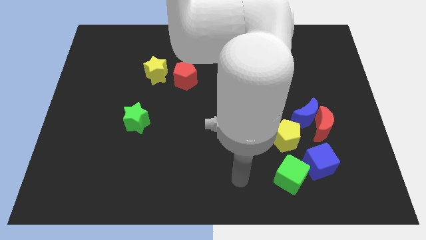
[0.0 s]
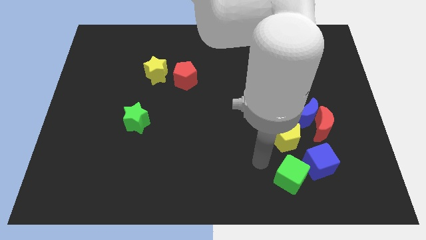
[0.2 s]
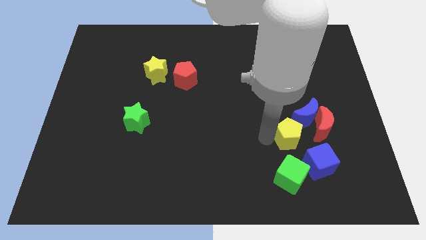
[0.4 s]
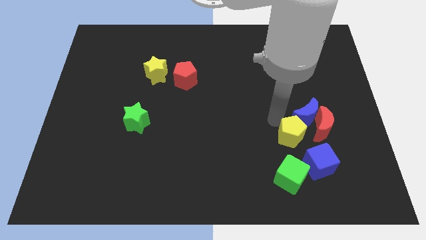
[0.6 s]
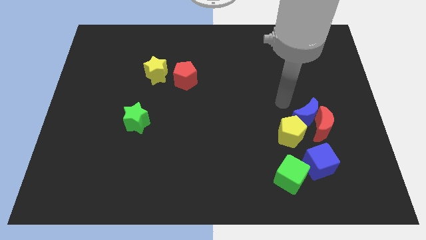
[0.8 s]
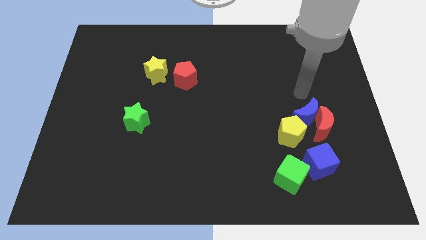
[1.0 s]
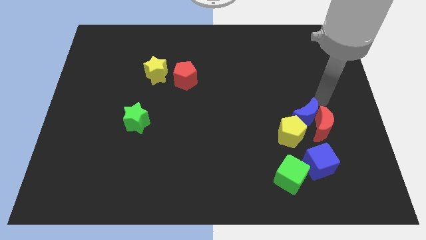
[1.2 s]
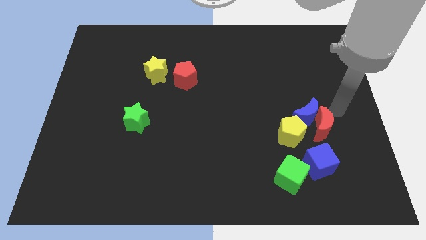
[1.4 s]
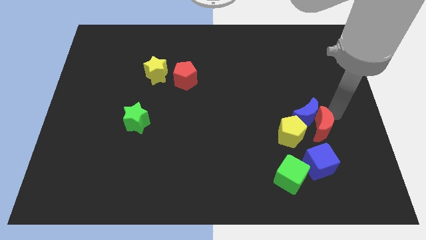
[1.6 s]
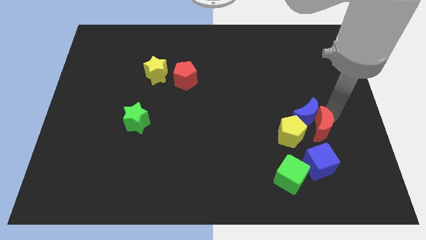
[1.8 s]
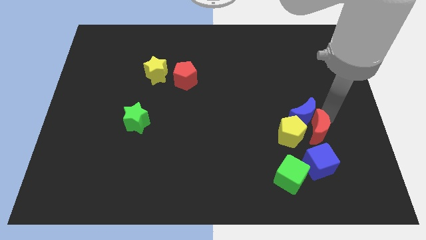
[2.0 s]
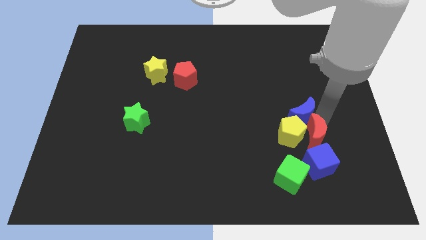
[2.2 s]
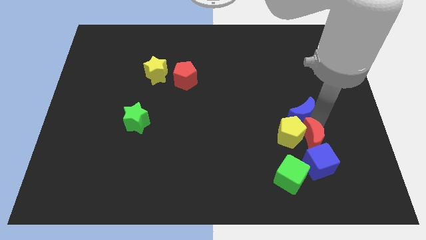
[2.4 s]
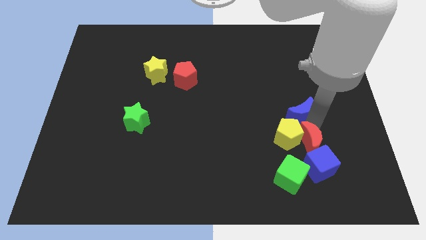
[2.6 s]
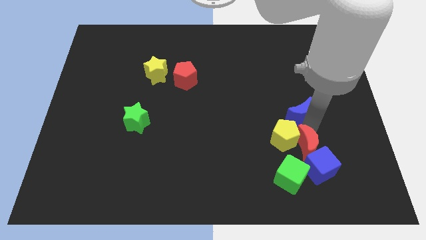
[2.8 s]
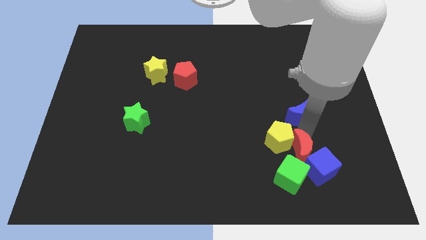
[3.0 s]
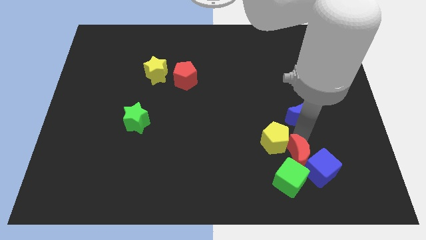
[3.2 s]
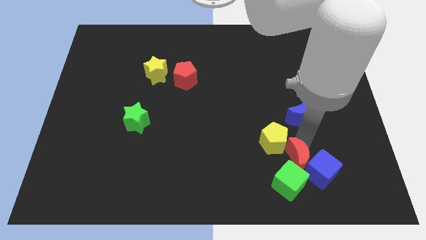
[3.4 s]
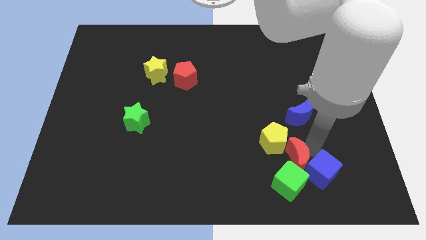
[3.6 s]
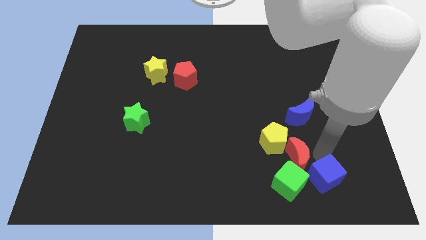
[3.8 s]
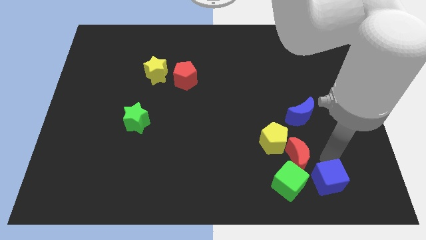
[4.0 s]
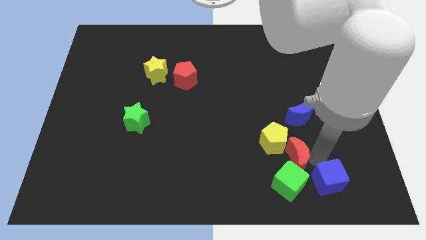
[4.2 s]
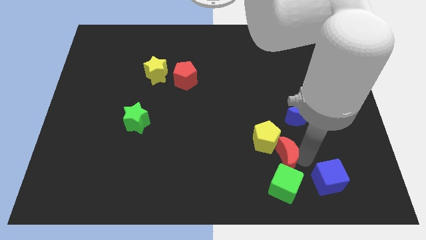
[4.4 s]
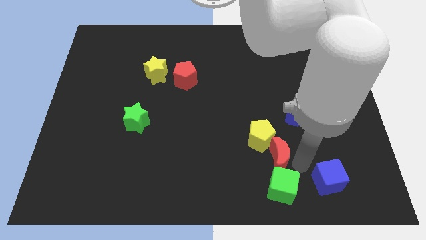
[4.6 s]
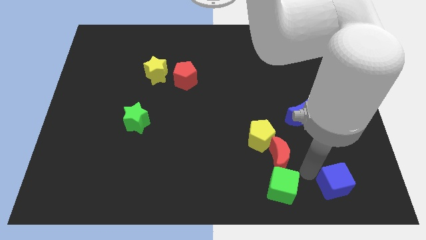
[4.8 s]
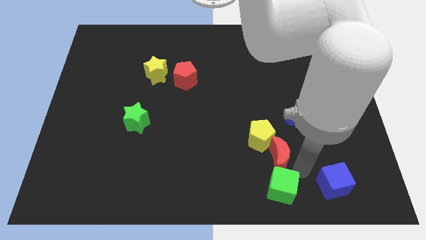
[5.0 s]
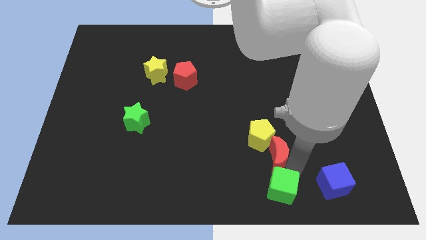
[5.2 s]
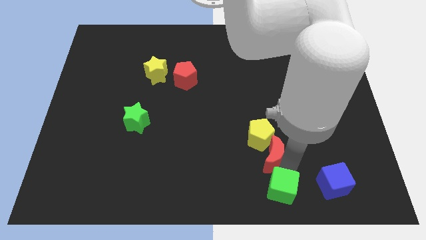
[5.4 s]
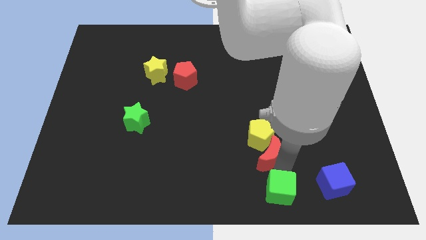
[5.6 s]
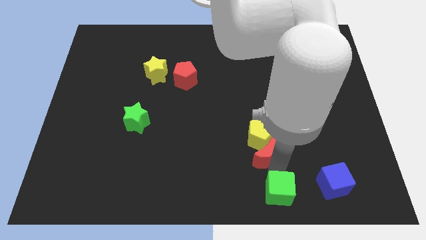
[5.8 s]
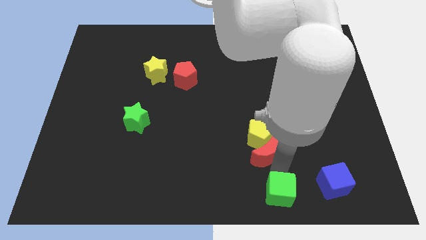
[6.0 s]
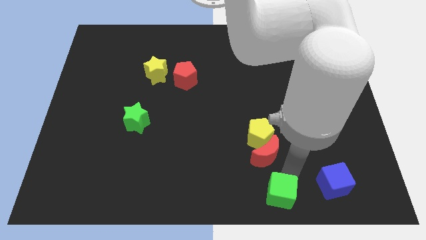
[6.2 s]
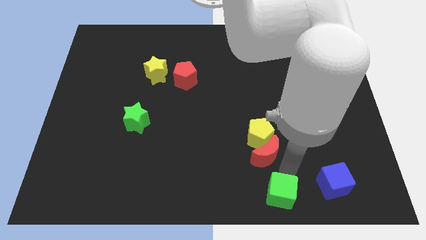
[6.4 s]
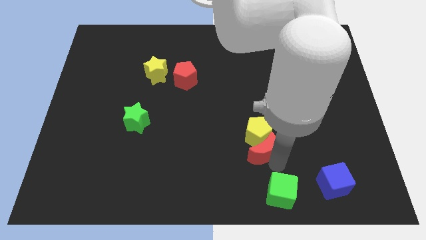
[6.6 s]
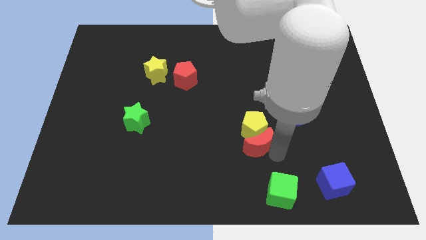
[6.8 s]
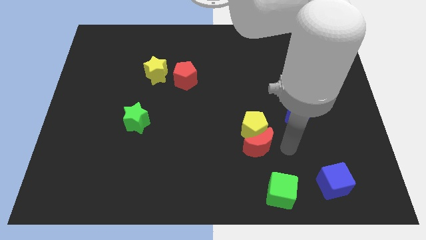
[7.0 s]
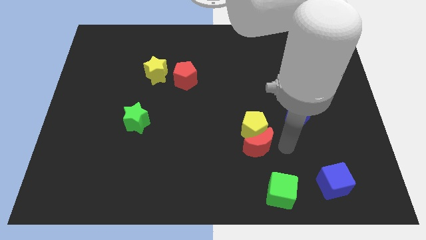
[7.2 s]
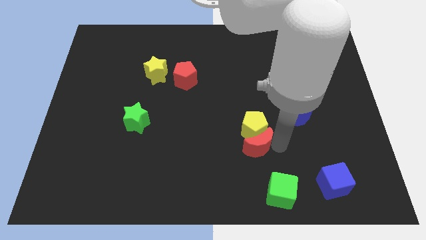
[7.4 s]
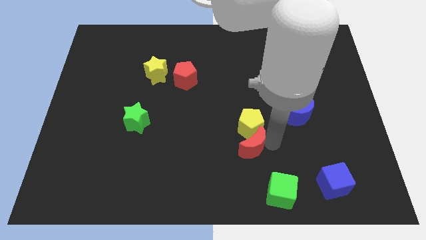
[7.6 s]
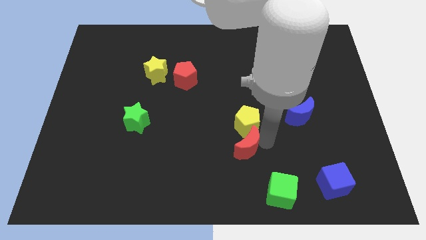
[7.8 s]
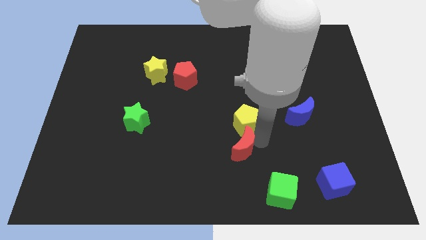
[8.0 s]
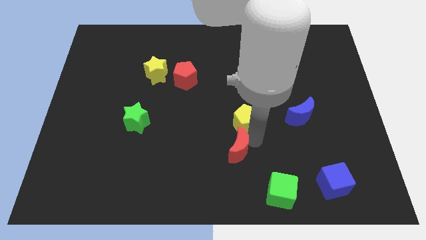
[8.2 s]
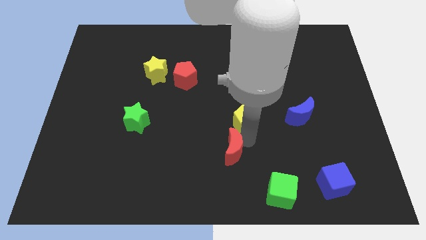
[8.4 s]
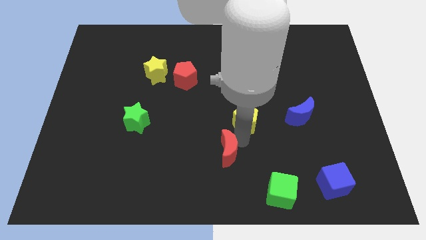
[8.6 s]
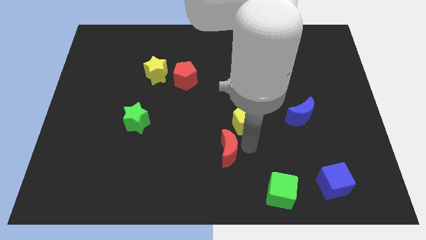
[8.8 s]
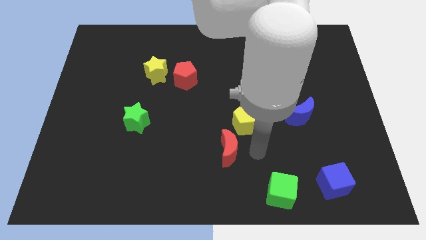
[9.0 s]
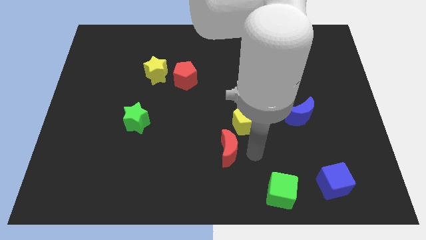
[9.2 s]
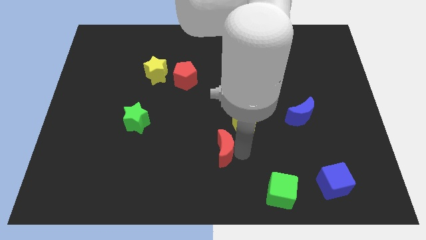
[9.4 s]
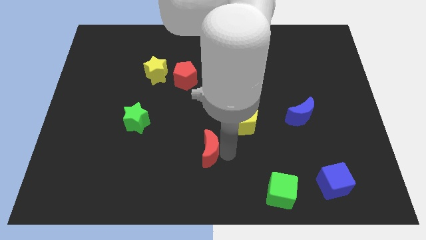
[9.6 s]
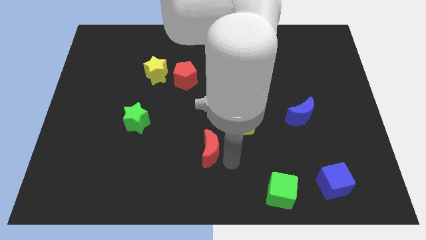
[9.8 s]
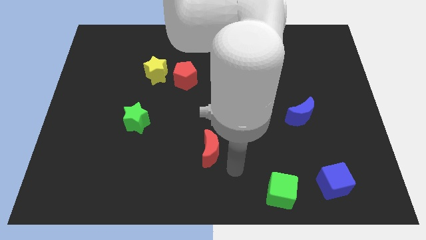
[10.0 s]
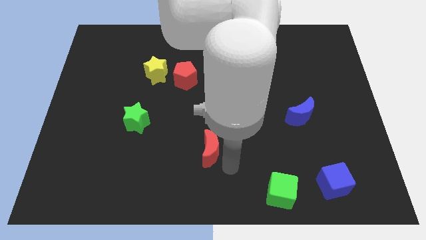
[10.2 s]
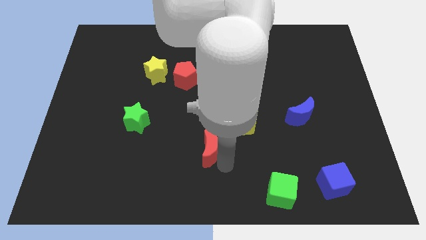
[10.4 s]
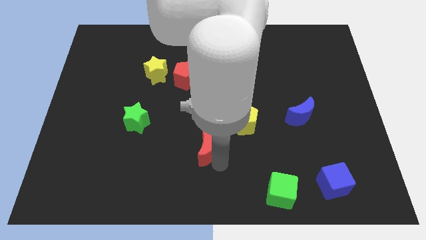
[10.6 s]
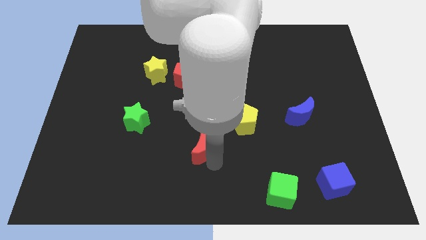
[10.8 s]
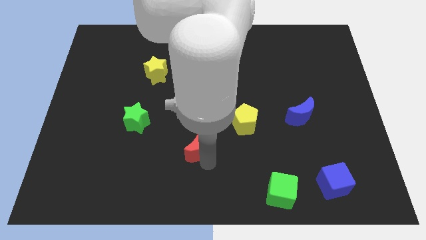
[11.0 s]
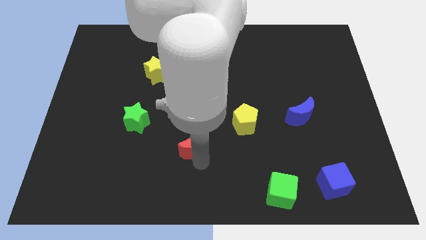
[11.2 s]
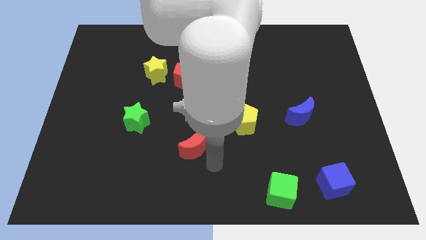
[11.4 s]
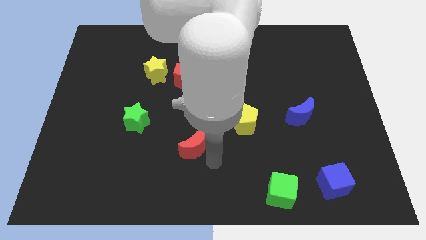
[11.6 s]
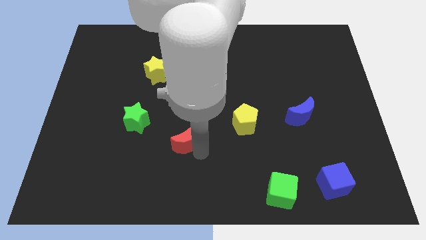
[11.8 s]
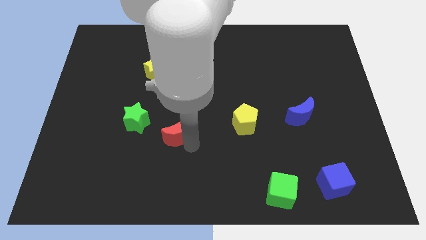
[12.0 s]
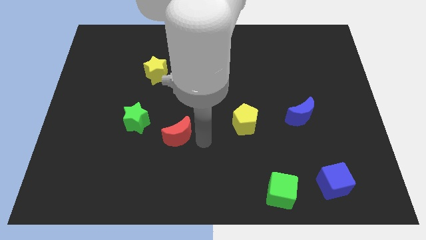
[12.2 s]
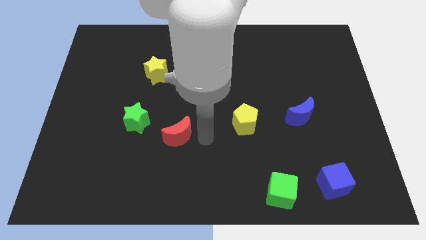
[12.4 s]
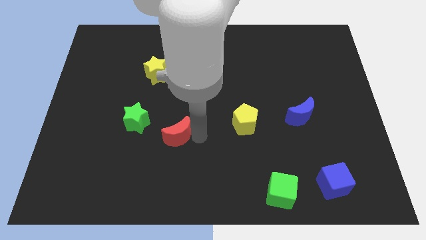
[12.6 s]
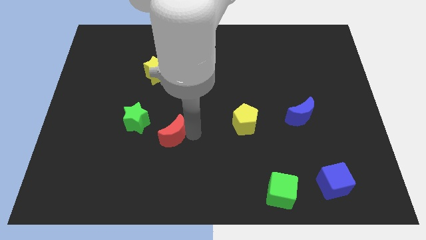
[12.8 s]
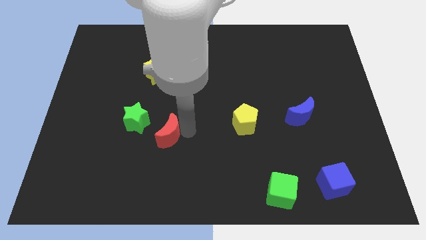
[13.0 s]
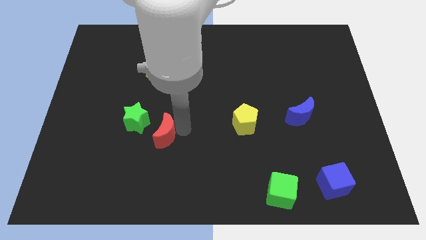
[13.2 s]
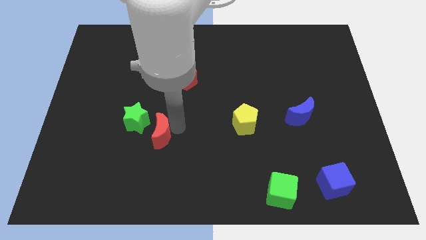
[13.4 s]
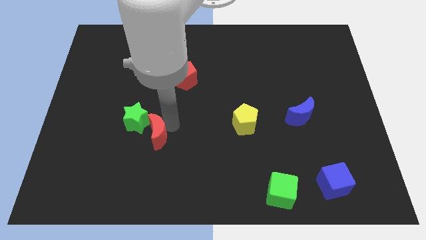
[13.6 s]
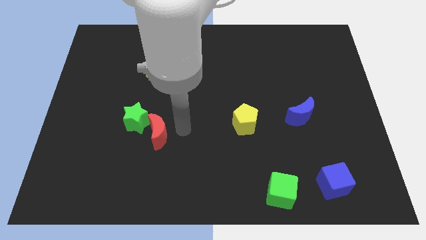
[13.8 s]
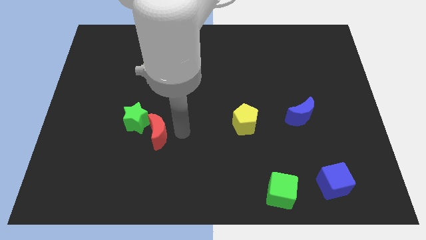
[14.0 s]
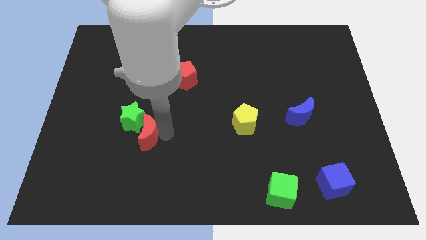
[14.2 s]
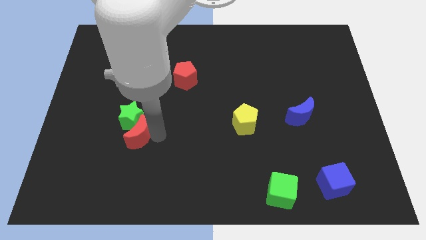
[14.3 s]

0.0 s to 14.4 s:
move the red moon to the bottom left of the green star
